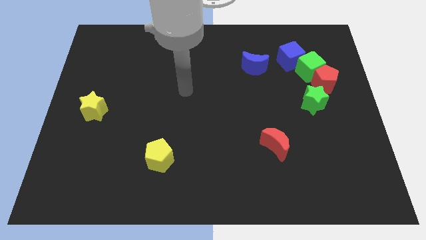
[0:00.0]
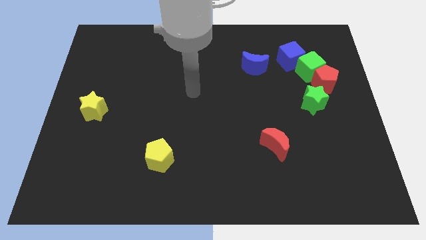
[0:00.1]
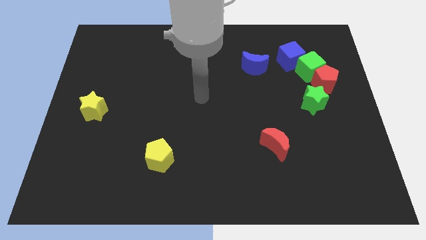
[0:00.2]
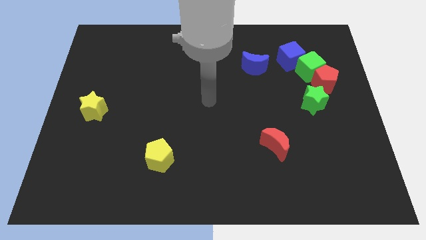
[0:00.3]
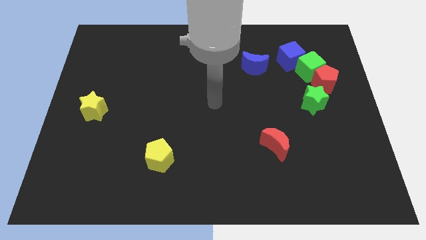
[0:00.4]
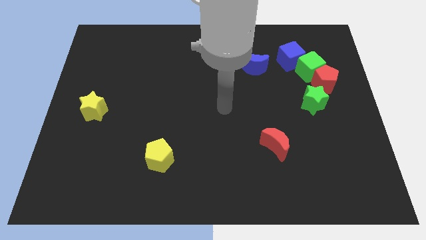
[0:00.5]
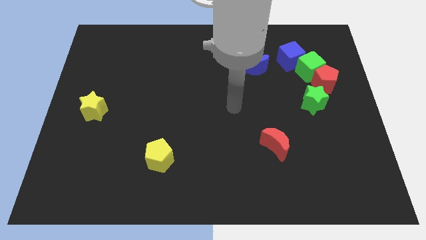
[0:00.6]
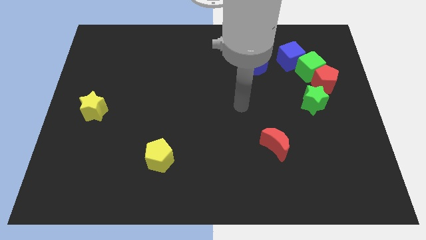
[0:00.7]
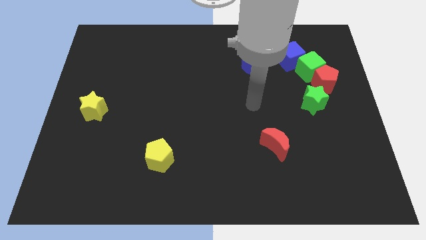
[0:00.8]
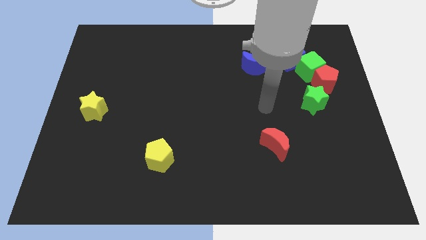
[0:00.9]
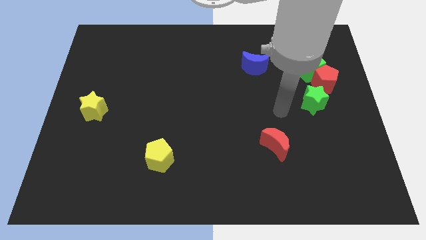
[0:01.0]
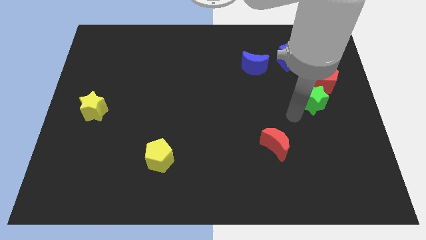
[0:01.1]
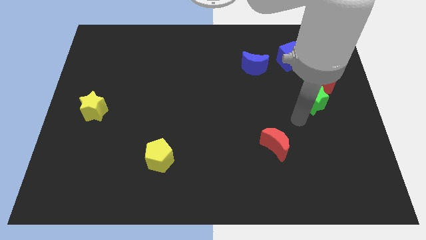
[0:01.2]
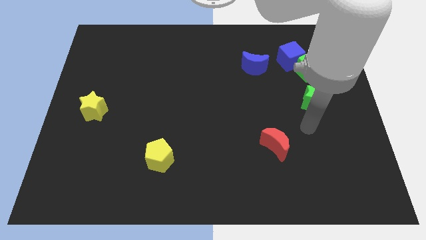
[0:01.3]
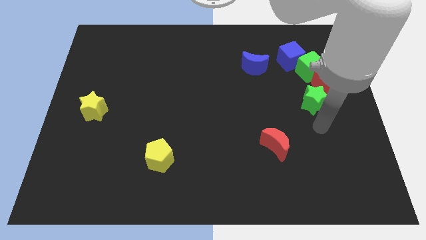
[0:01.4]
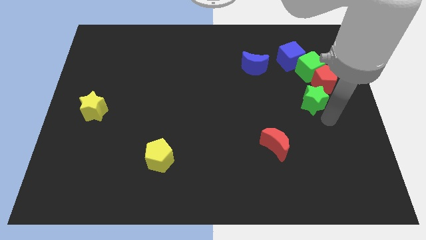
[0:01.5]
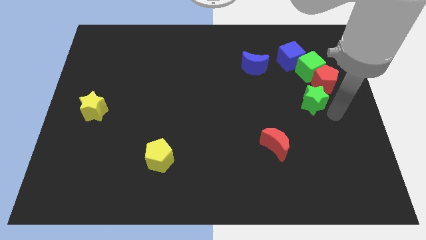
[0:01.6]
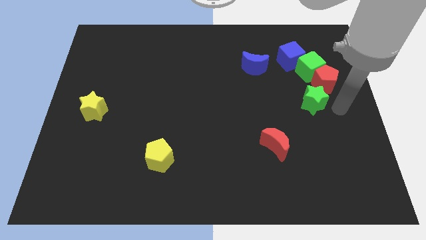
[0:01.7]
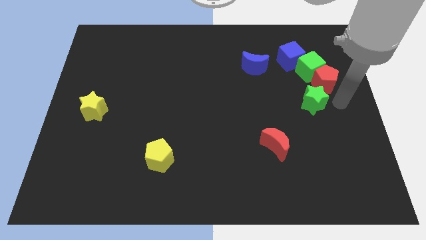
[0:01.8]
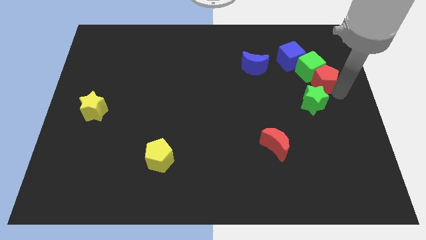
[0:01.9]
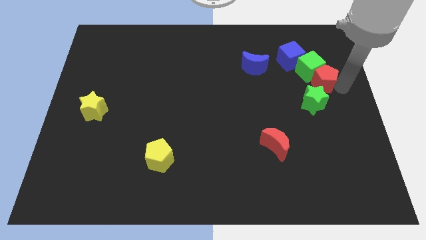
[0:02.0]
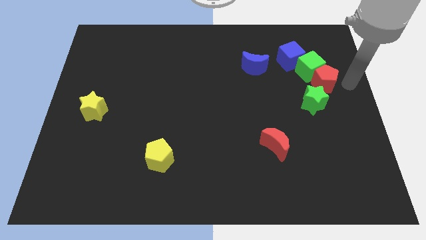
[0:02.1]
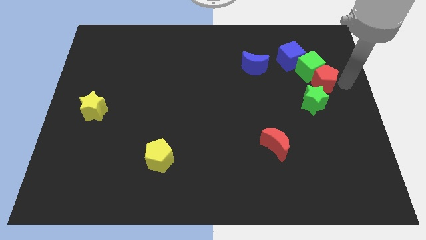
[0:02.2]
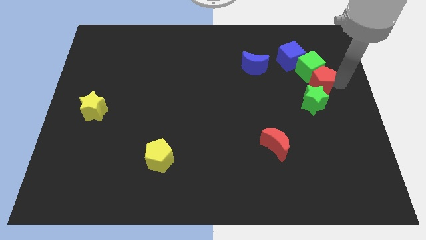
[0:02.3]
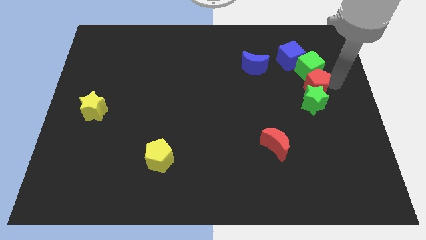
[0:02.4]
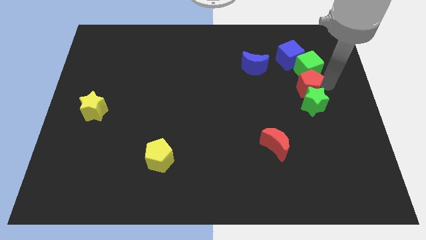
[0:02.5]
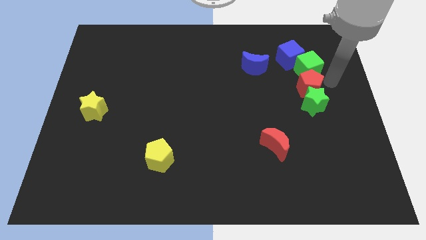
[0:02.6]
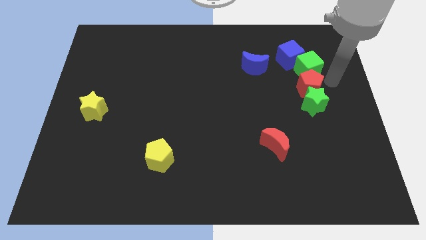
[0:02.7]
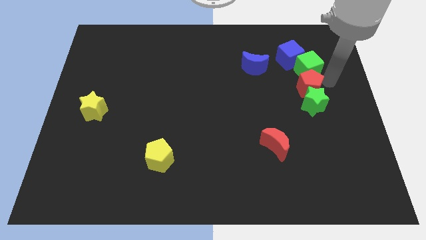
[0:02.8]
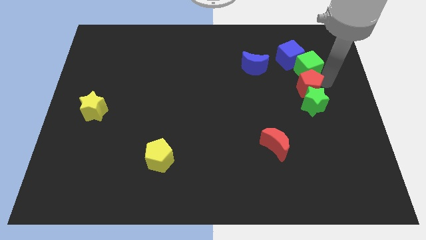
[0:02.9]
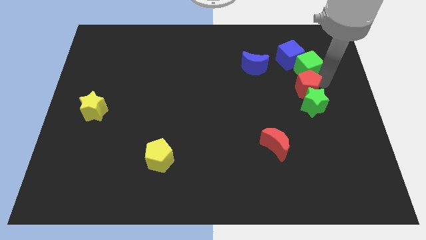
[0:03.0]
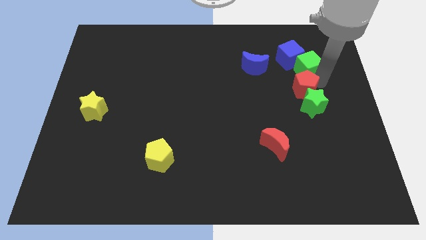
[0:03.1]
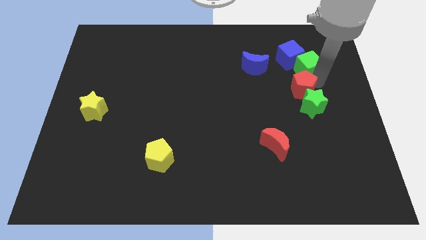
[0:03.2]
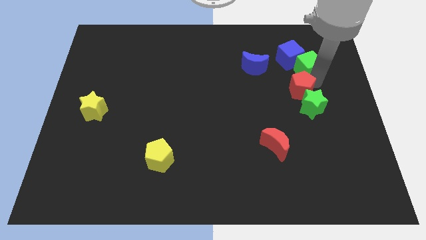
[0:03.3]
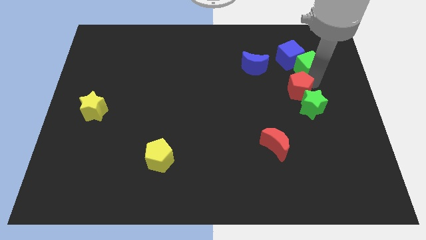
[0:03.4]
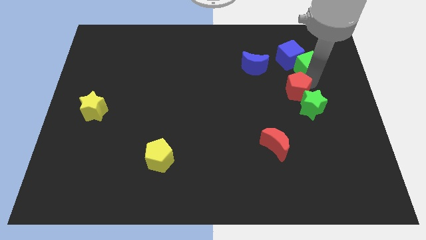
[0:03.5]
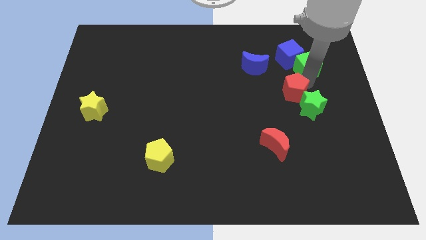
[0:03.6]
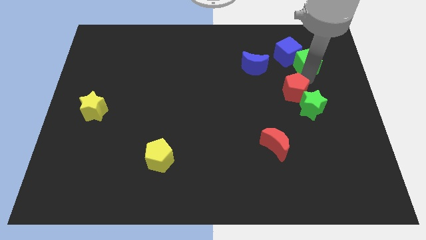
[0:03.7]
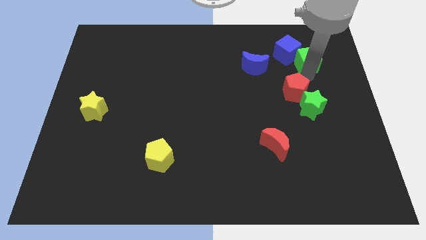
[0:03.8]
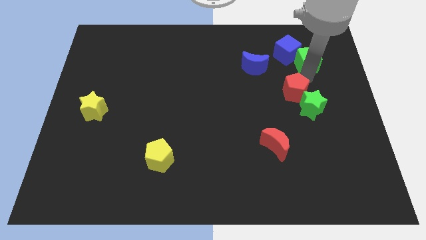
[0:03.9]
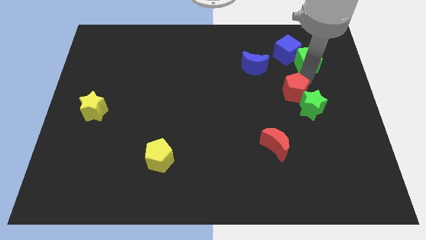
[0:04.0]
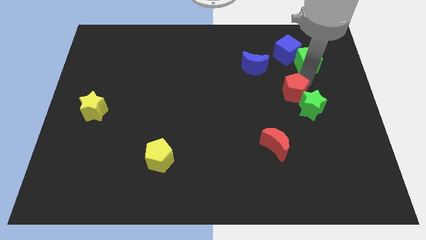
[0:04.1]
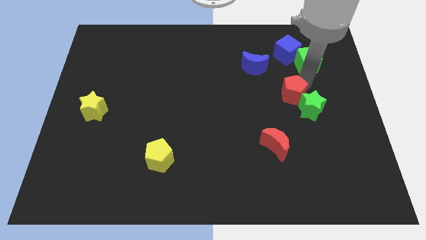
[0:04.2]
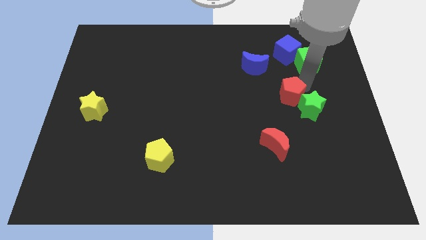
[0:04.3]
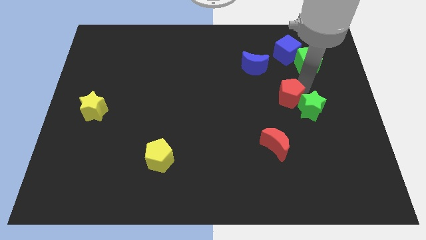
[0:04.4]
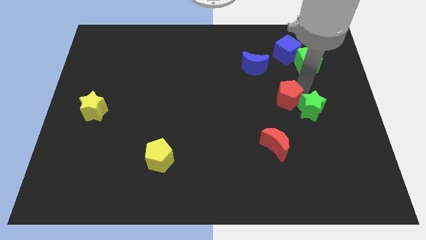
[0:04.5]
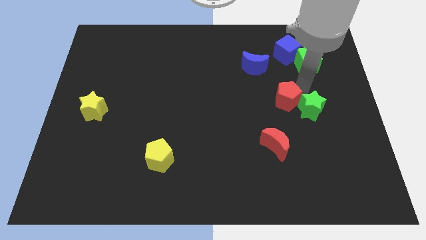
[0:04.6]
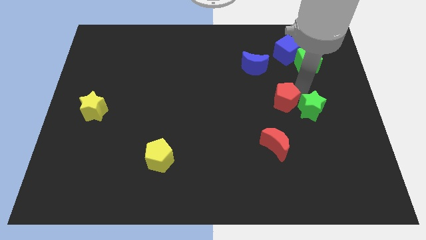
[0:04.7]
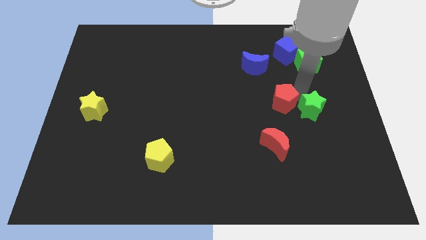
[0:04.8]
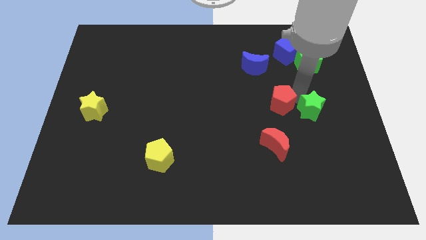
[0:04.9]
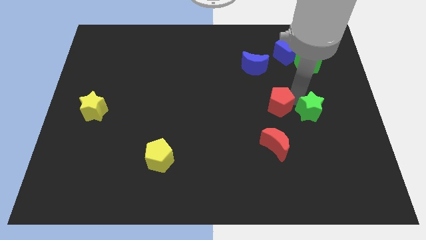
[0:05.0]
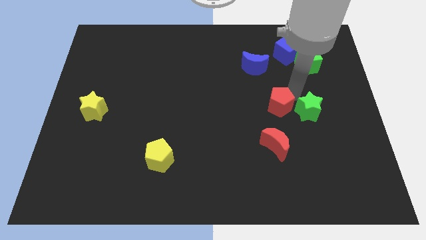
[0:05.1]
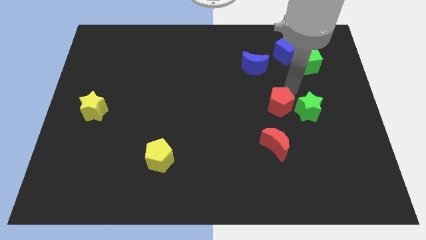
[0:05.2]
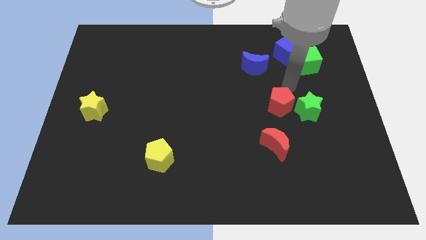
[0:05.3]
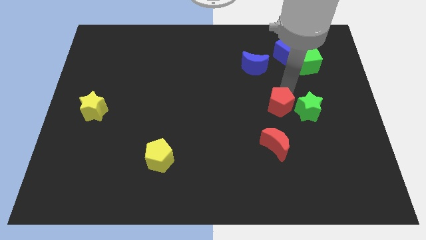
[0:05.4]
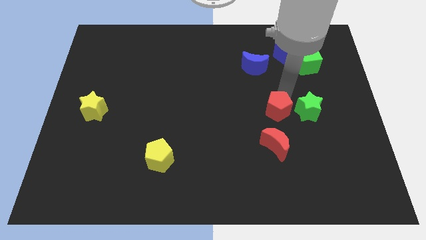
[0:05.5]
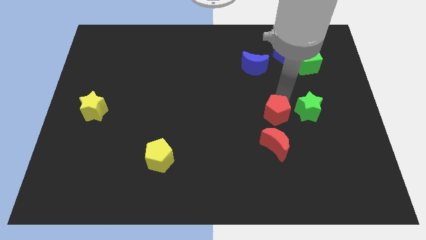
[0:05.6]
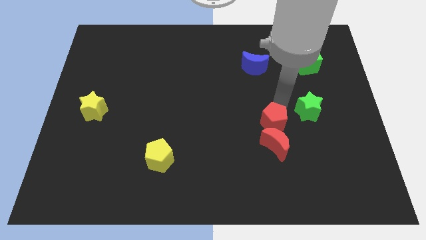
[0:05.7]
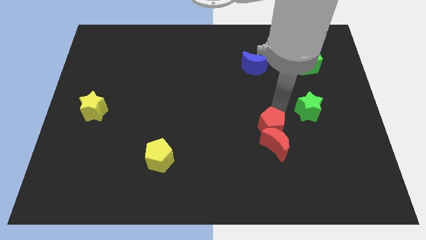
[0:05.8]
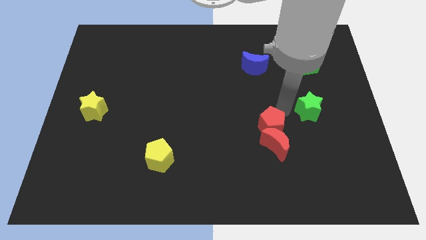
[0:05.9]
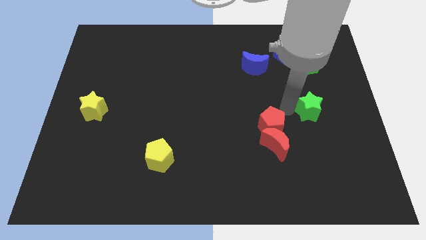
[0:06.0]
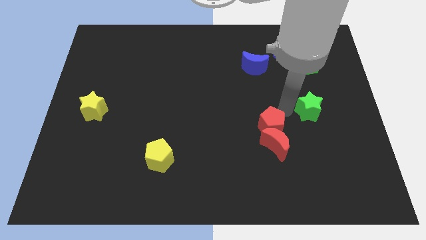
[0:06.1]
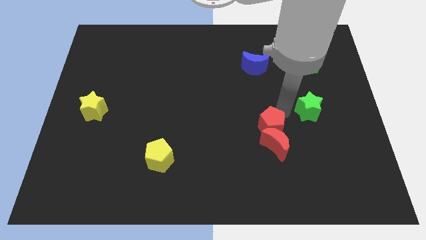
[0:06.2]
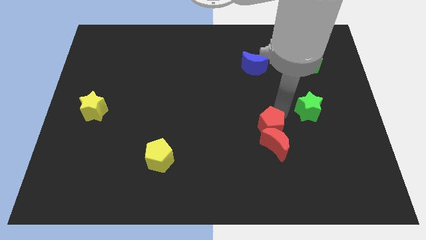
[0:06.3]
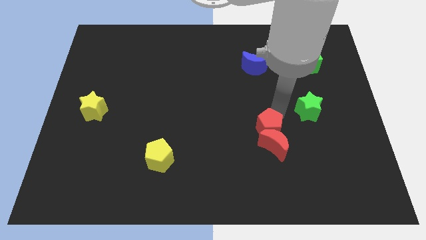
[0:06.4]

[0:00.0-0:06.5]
move the red pentagon downwards and left diagonally

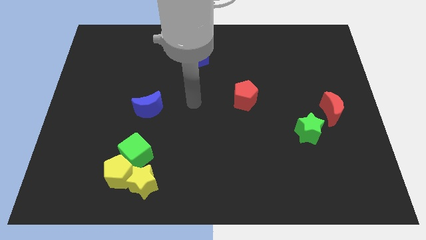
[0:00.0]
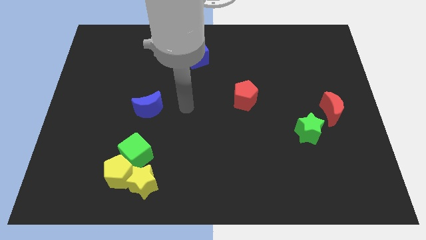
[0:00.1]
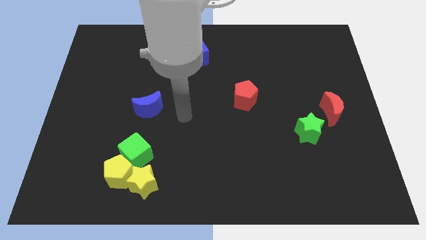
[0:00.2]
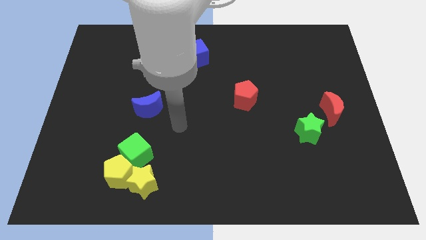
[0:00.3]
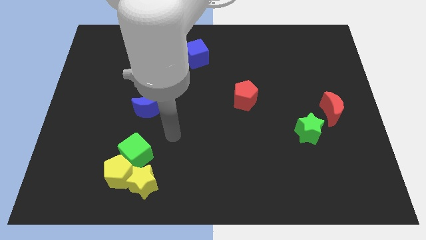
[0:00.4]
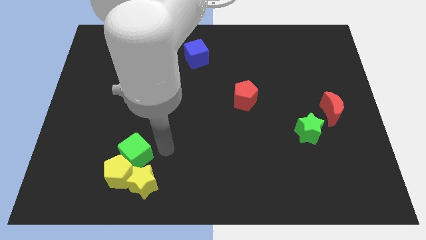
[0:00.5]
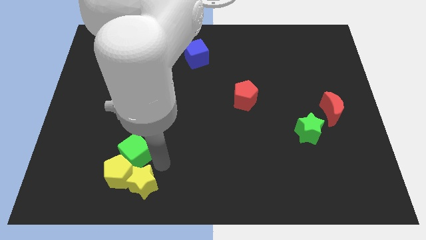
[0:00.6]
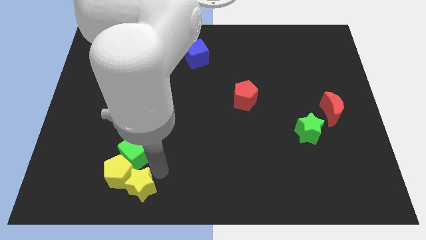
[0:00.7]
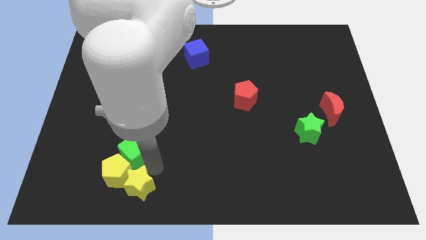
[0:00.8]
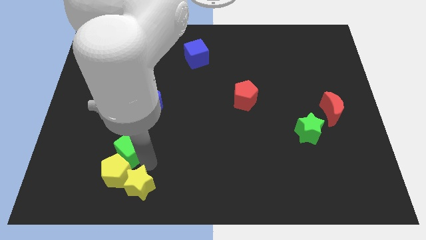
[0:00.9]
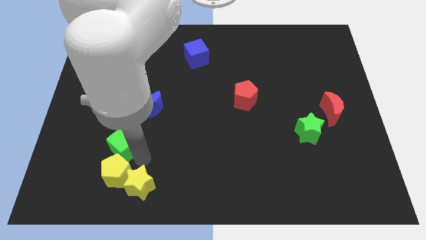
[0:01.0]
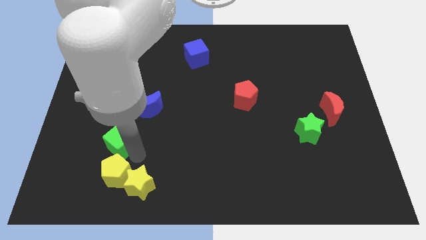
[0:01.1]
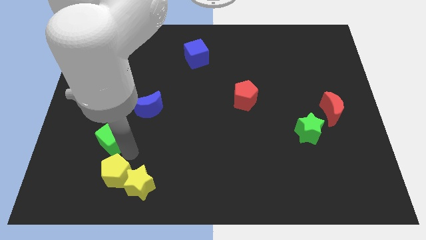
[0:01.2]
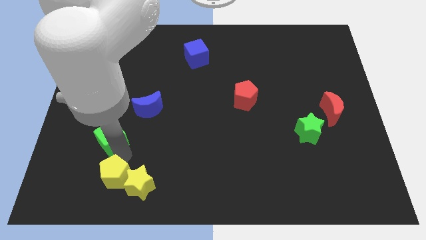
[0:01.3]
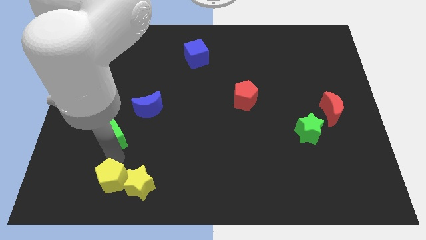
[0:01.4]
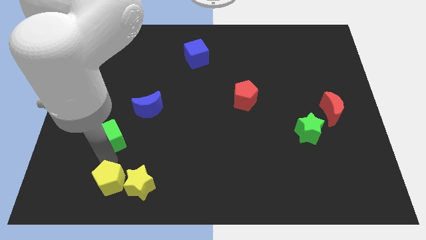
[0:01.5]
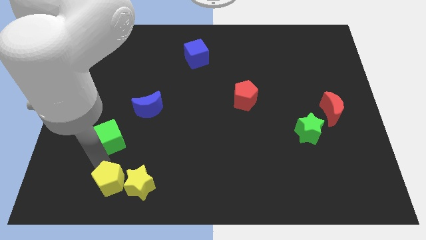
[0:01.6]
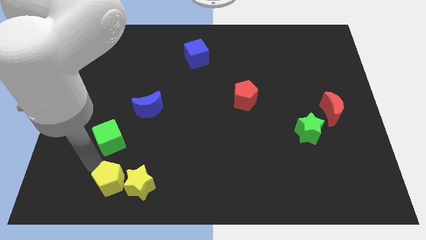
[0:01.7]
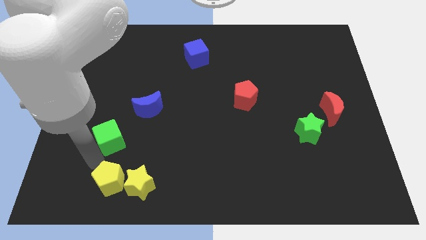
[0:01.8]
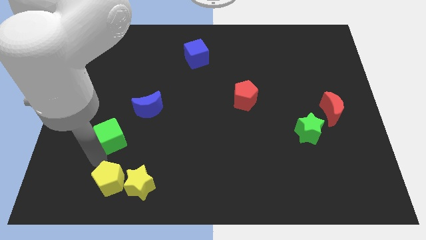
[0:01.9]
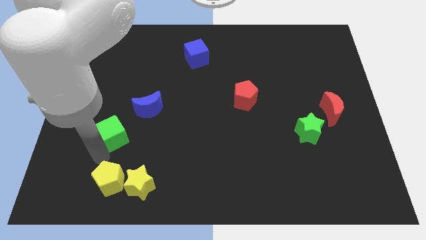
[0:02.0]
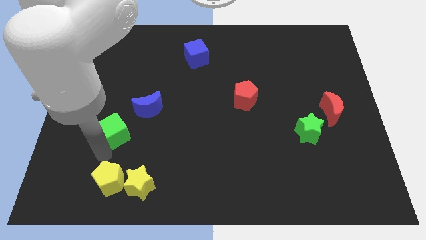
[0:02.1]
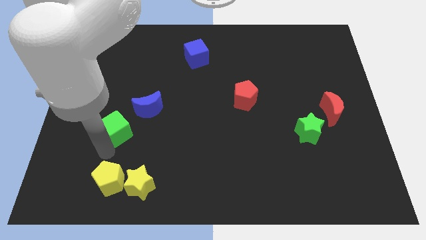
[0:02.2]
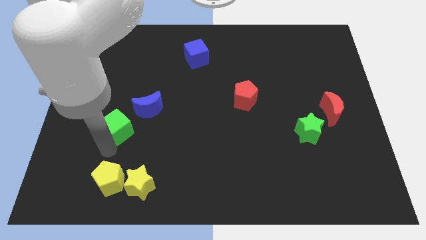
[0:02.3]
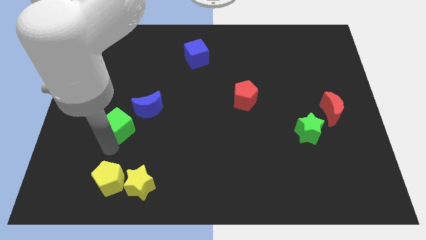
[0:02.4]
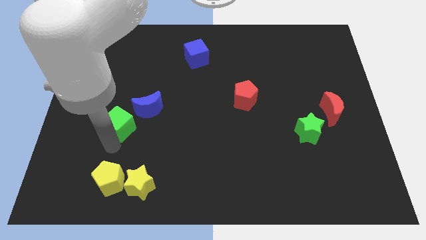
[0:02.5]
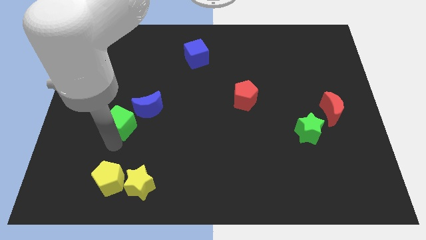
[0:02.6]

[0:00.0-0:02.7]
slightly push the green cube upwards
